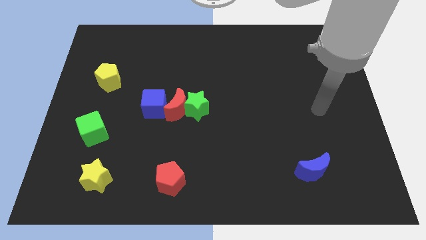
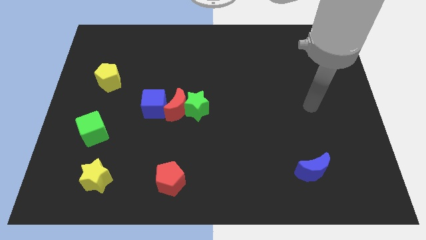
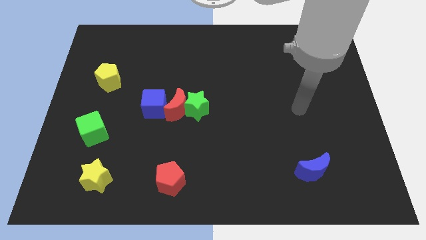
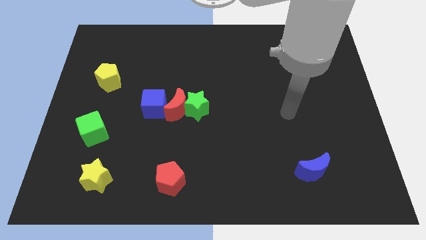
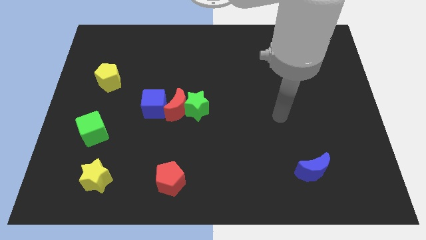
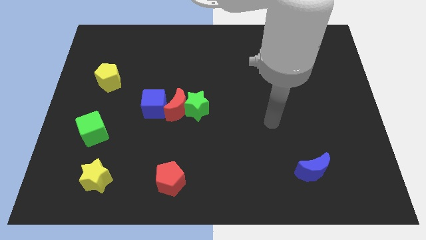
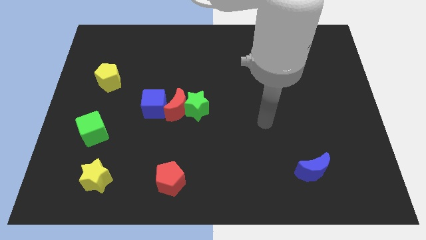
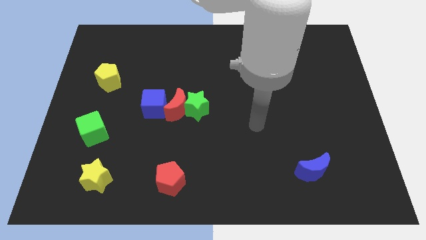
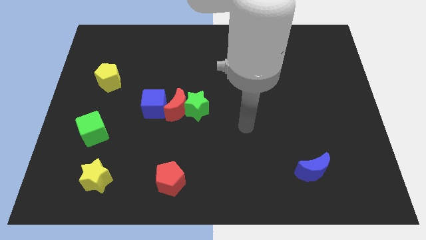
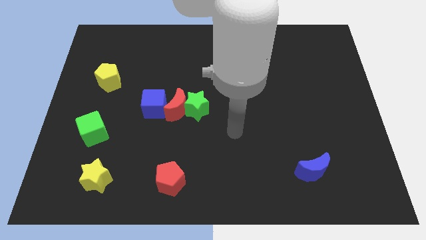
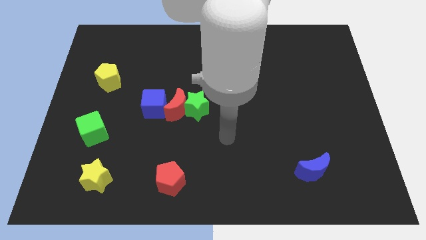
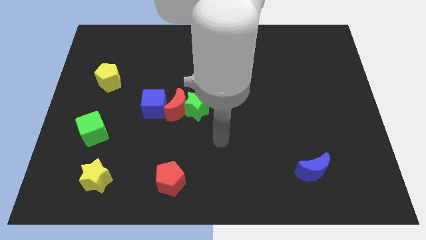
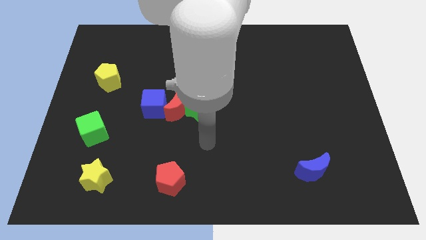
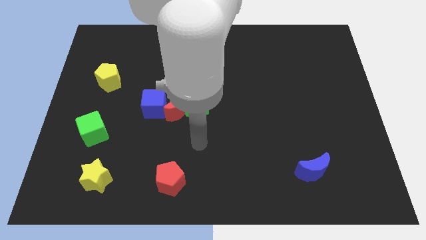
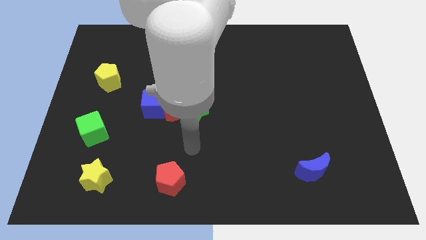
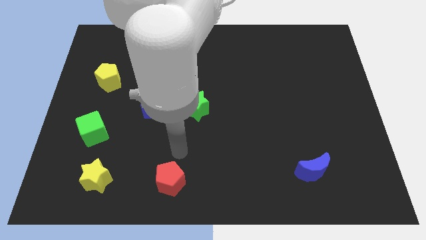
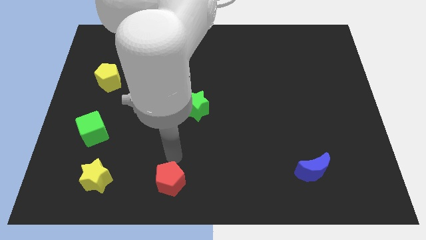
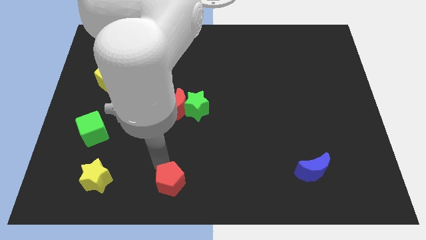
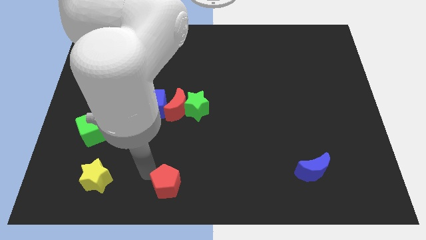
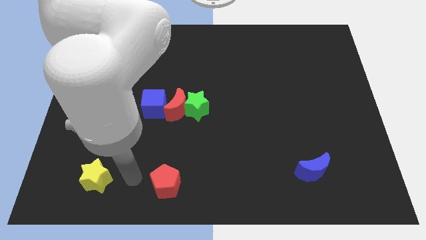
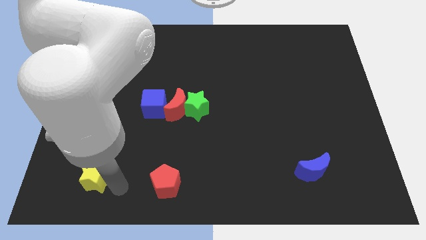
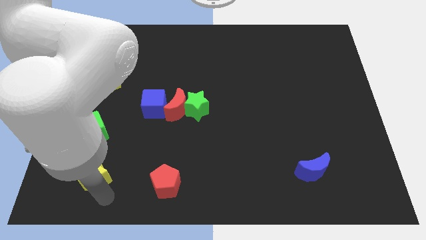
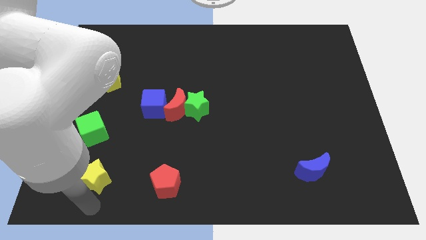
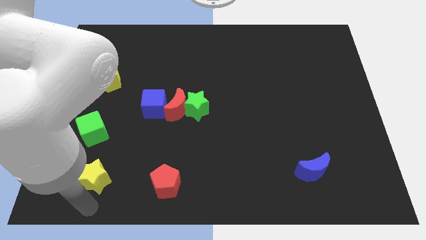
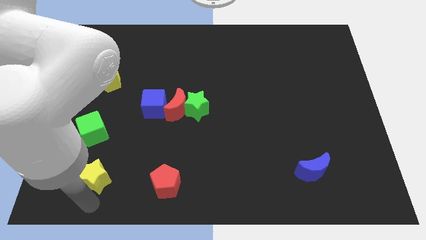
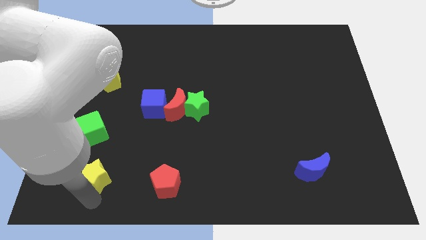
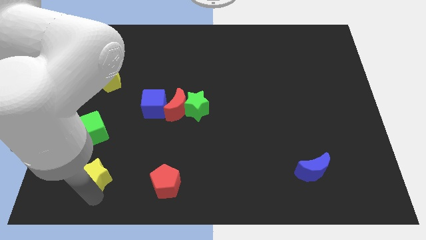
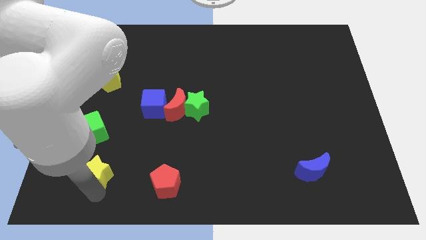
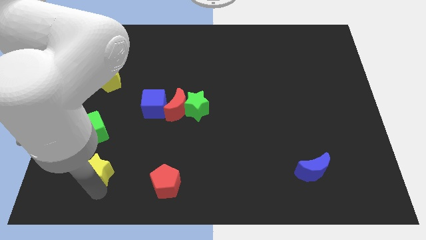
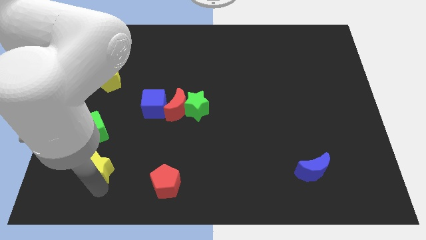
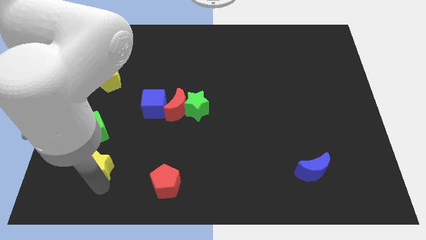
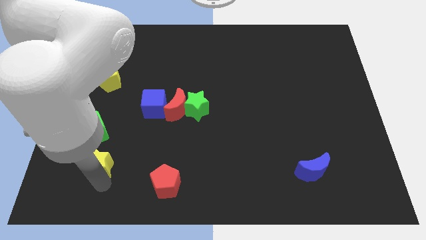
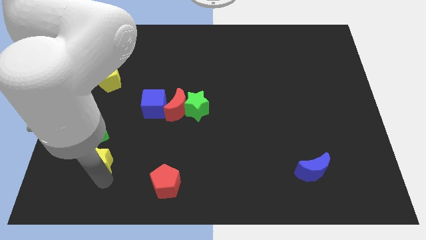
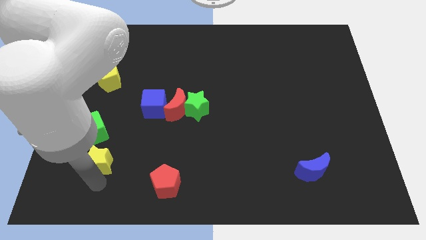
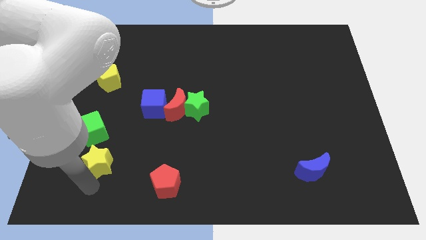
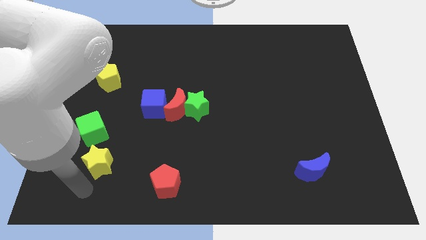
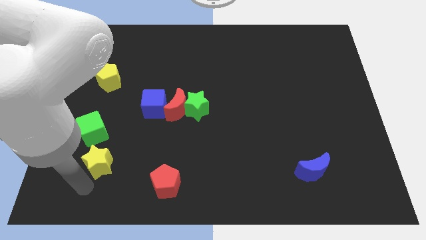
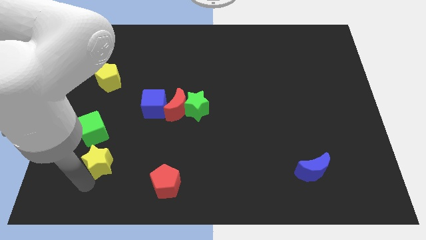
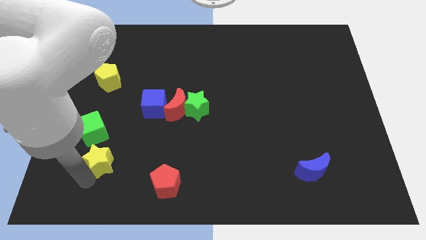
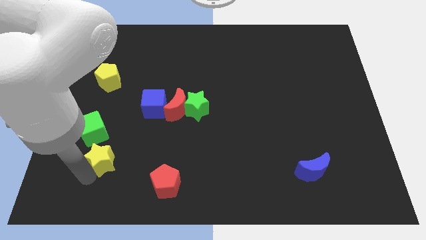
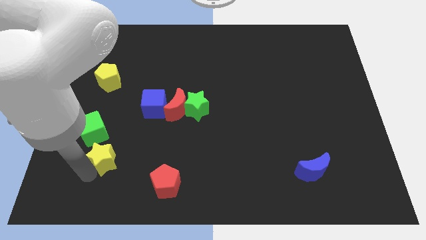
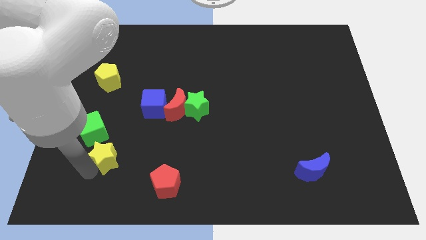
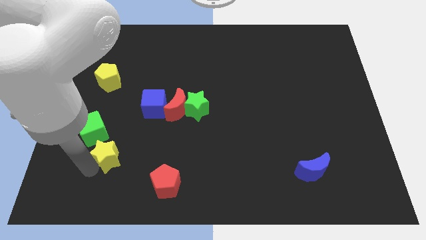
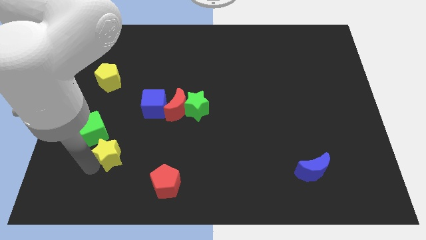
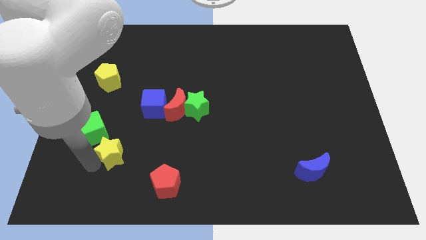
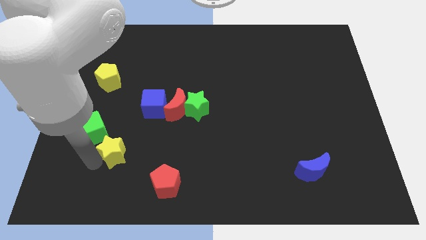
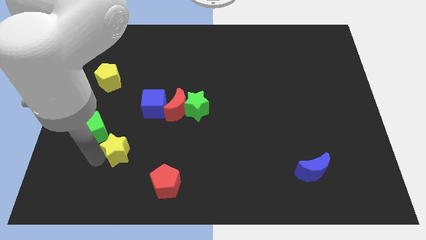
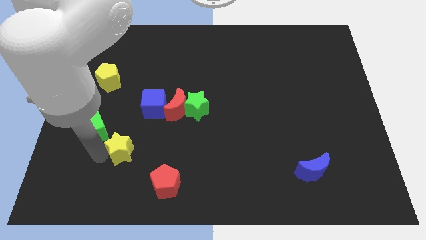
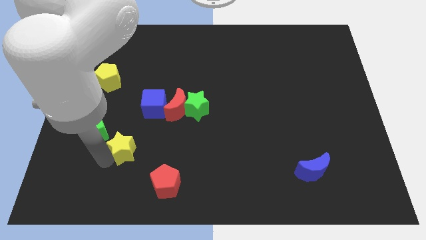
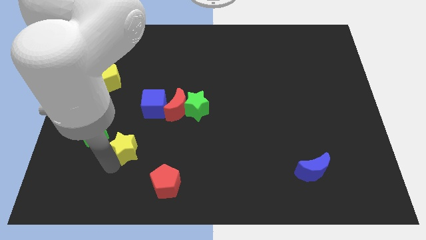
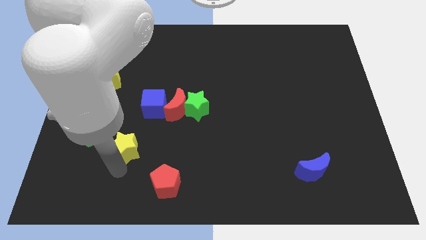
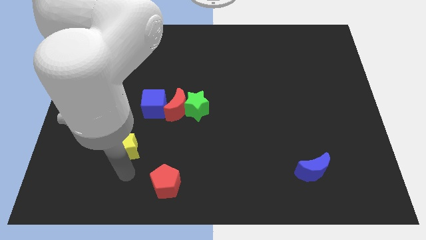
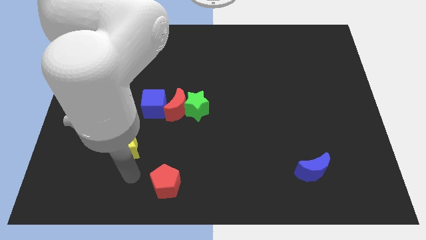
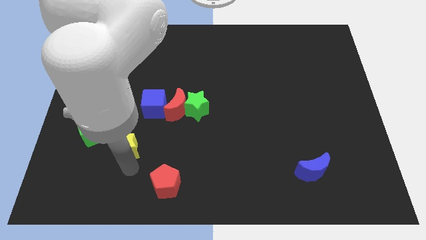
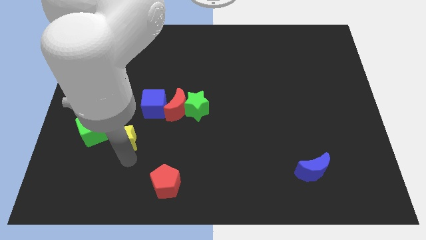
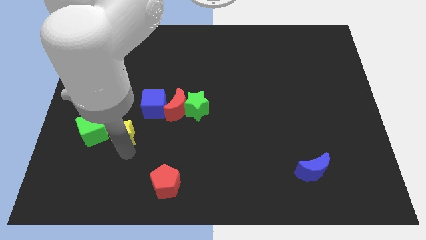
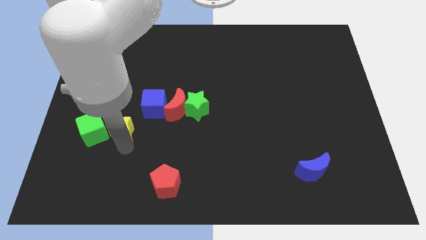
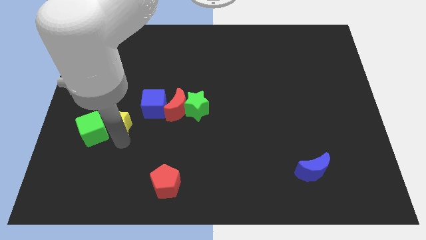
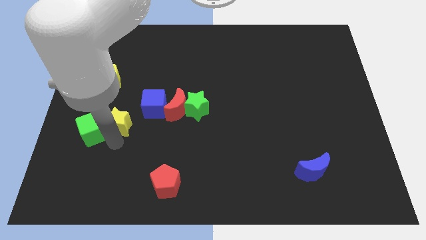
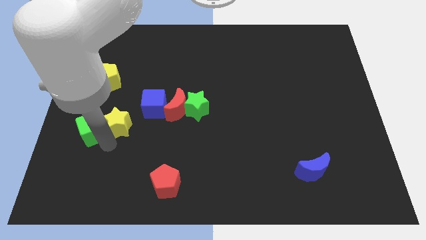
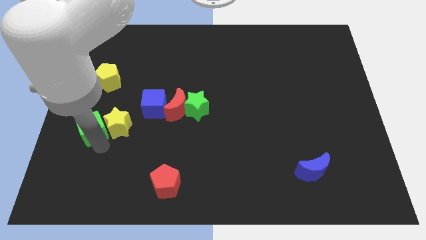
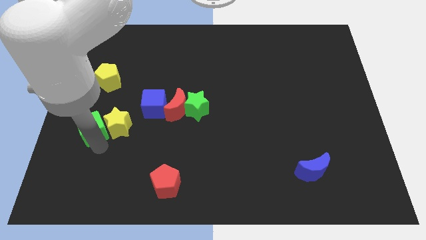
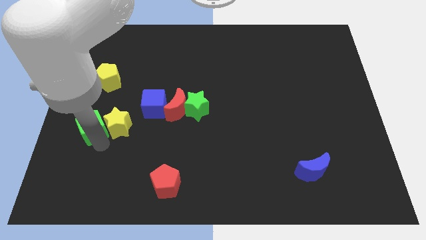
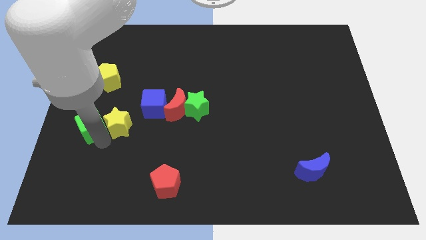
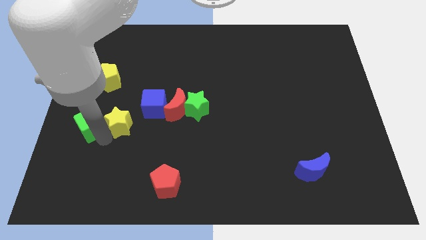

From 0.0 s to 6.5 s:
put the yellow star just left of the red moon

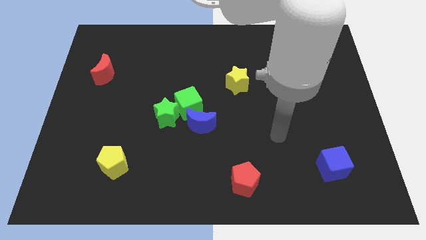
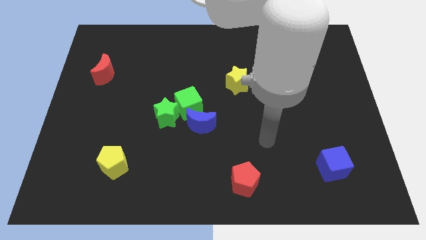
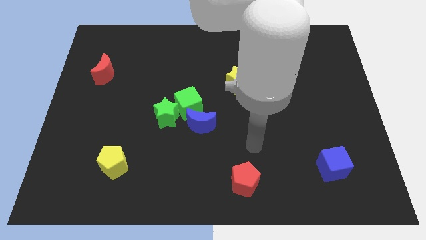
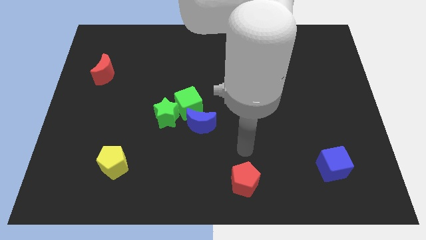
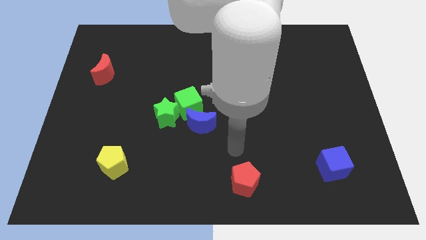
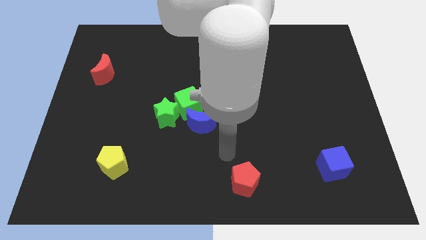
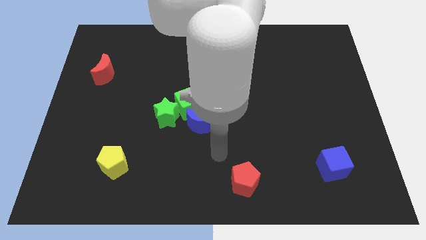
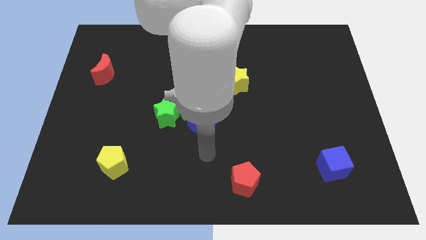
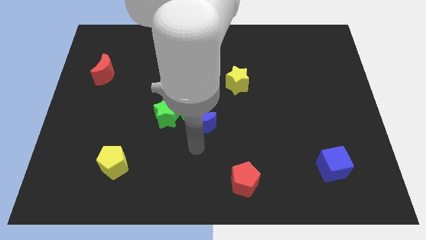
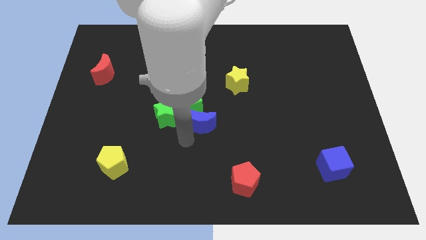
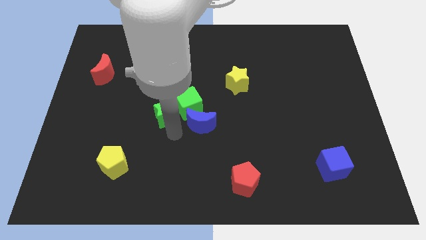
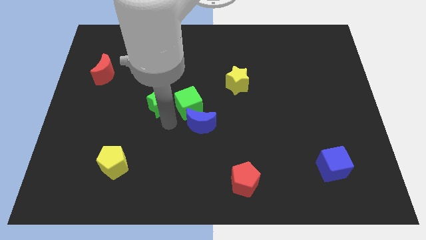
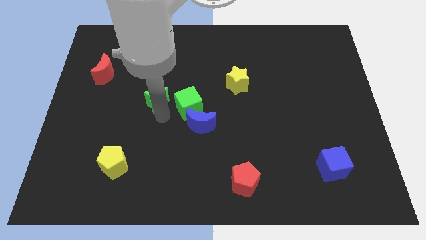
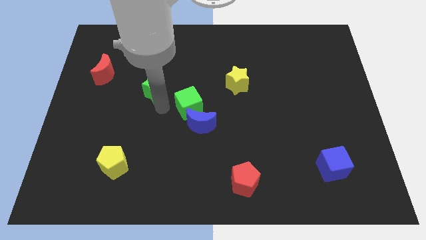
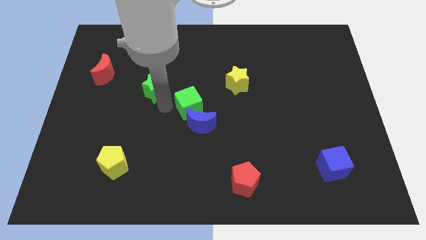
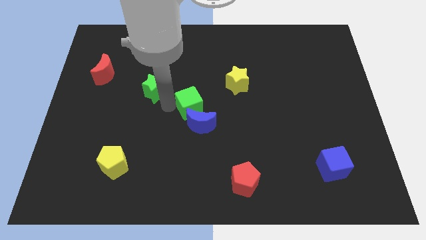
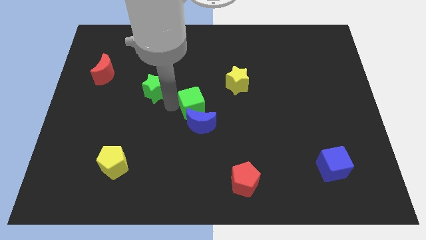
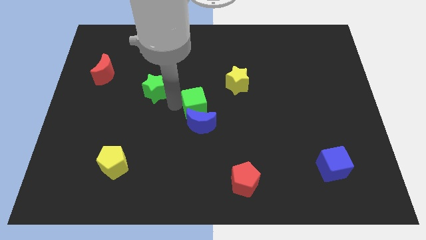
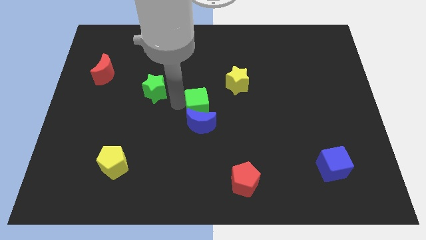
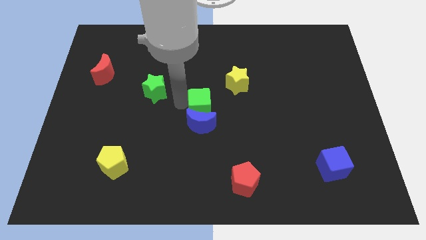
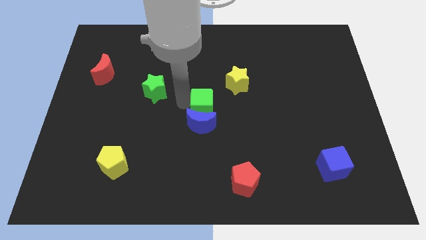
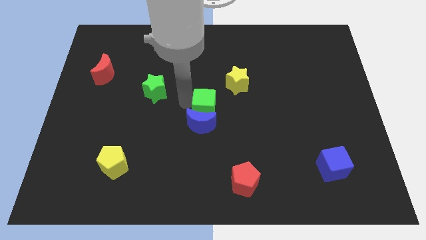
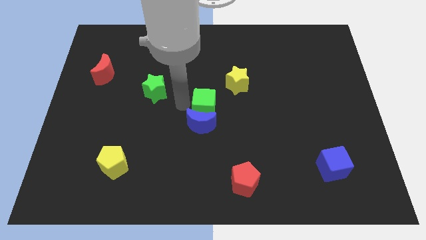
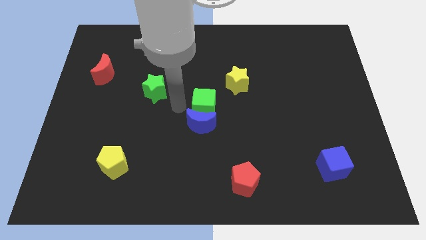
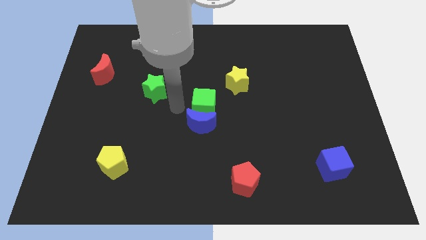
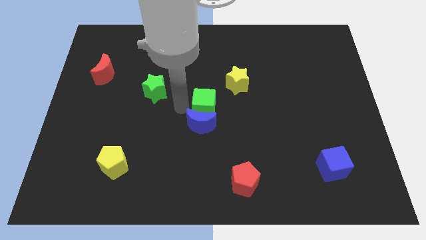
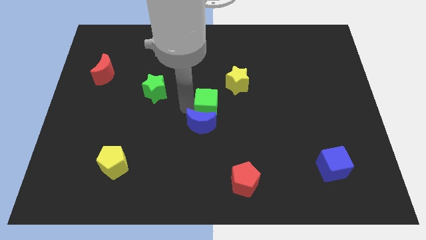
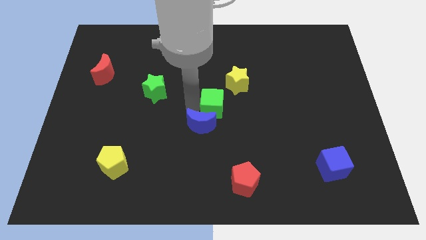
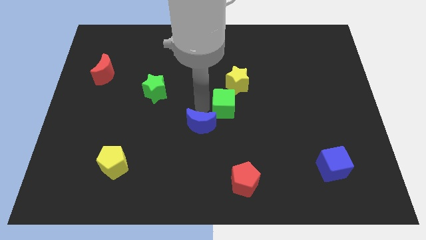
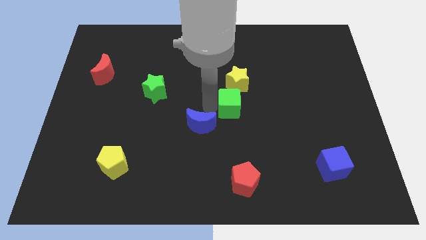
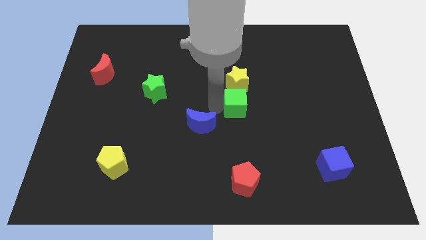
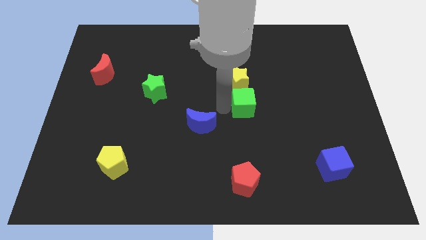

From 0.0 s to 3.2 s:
push the green cube to the bottom right of the yellow star
